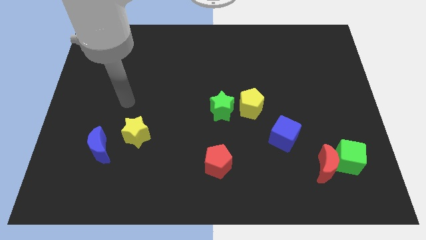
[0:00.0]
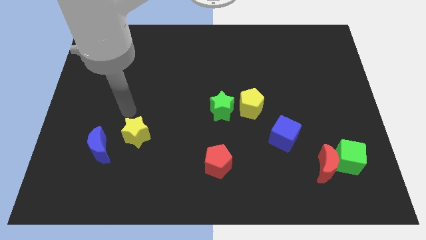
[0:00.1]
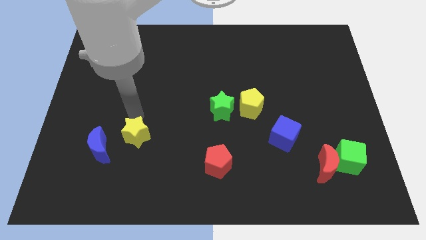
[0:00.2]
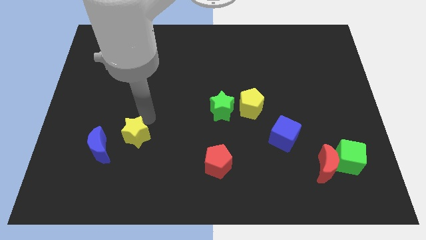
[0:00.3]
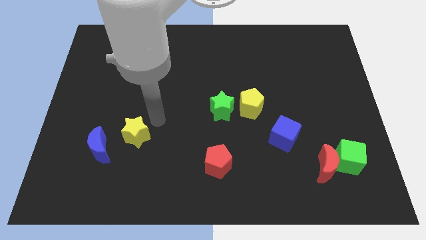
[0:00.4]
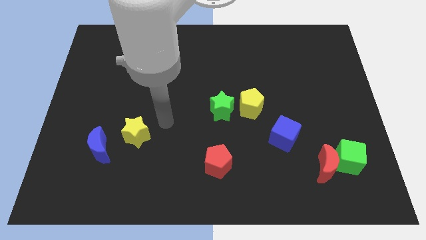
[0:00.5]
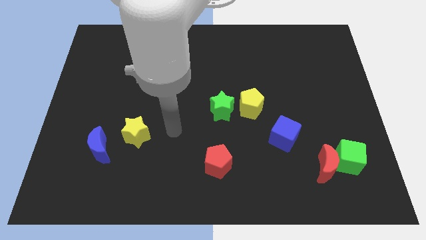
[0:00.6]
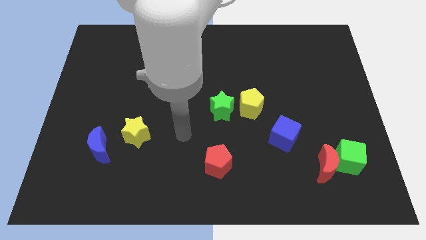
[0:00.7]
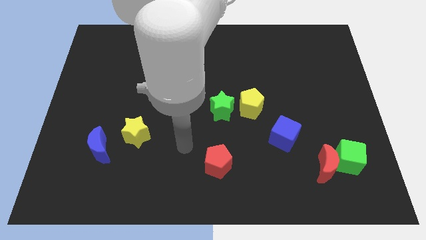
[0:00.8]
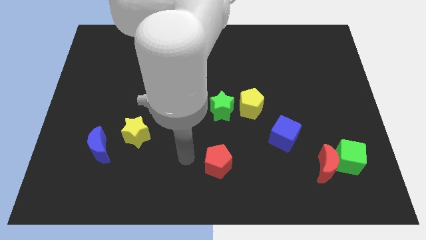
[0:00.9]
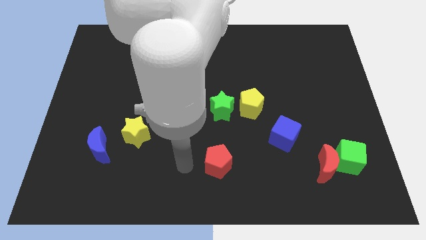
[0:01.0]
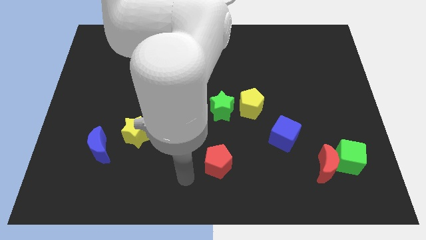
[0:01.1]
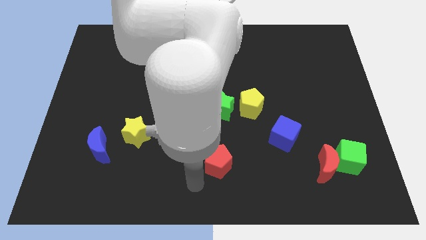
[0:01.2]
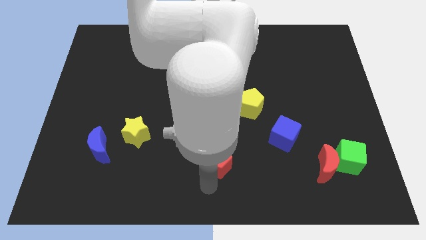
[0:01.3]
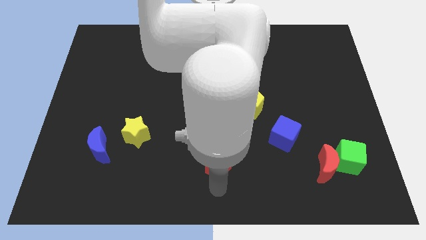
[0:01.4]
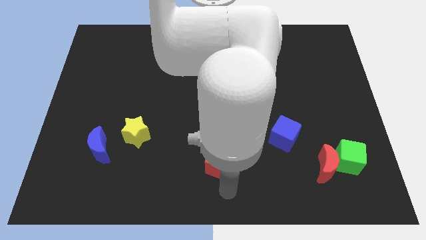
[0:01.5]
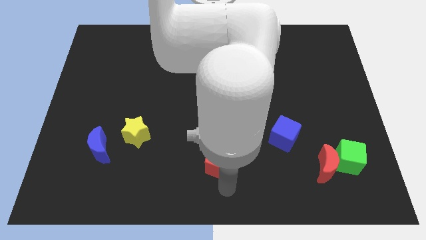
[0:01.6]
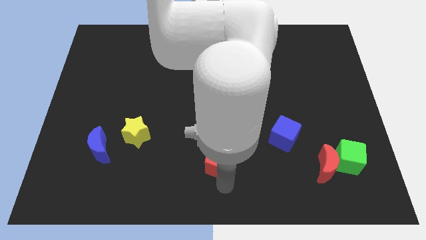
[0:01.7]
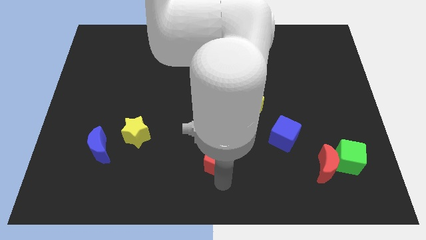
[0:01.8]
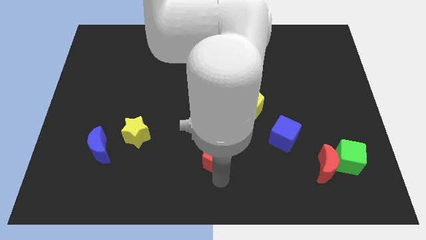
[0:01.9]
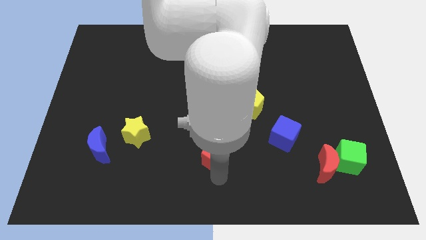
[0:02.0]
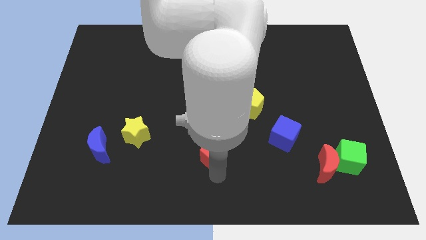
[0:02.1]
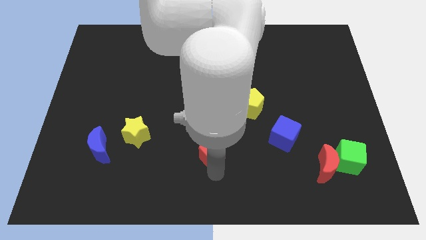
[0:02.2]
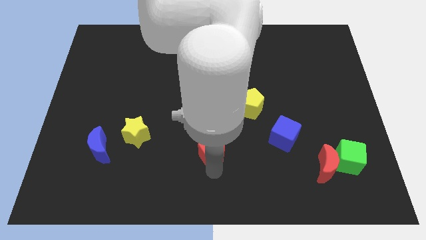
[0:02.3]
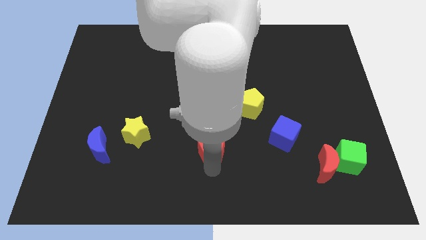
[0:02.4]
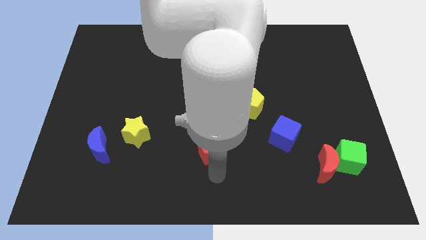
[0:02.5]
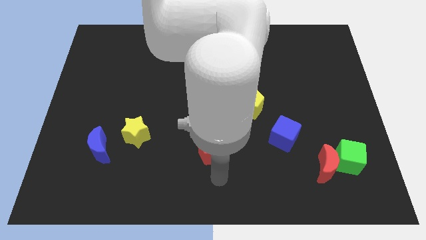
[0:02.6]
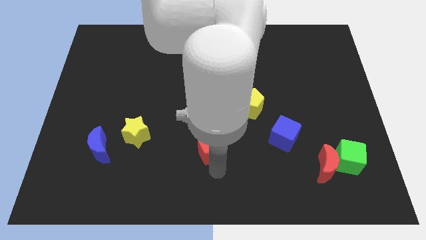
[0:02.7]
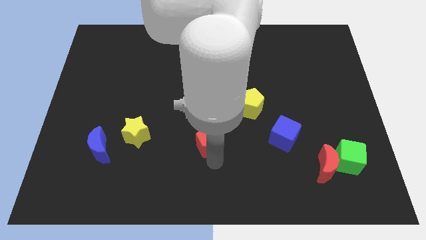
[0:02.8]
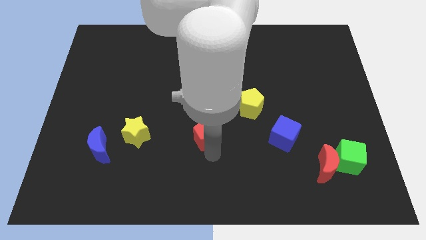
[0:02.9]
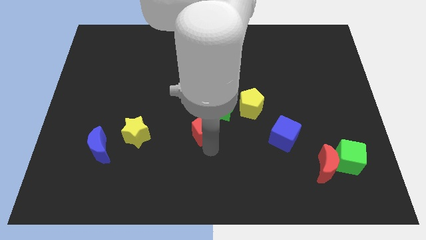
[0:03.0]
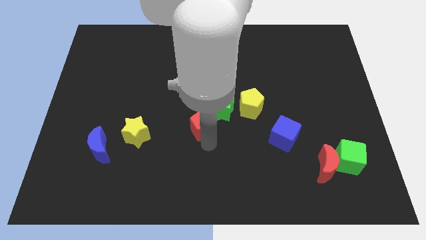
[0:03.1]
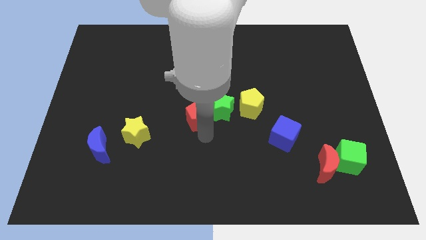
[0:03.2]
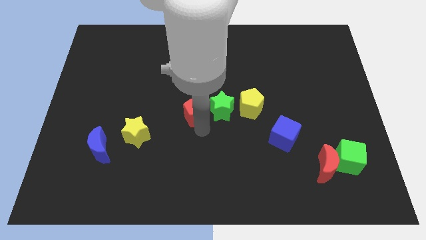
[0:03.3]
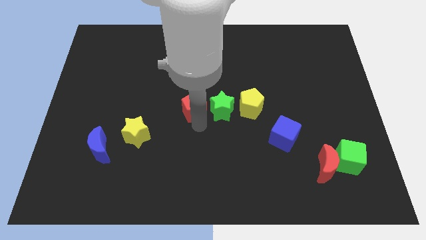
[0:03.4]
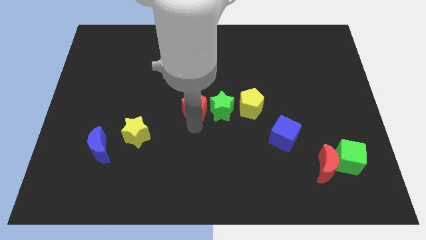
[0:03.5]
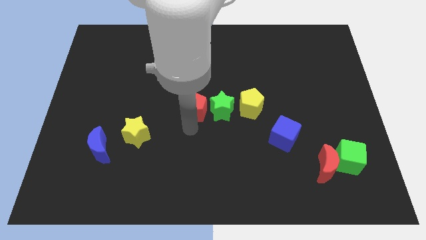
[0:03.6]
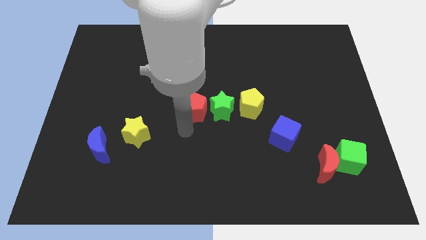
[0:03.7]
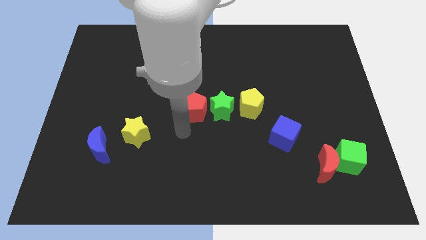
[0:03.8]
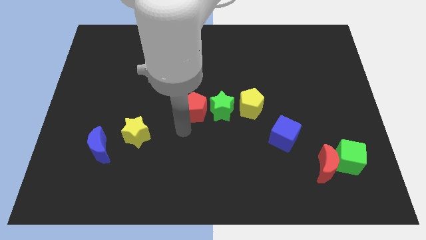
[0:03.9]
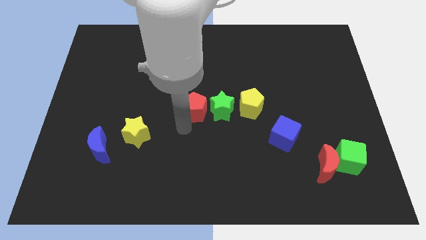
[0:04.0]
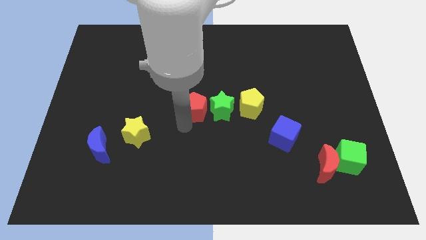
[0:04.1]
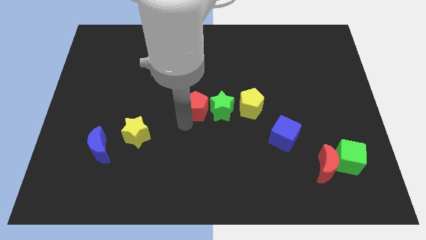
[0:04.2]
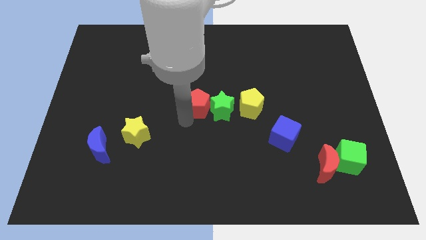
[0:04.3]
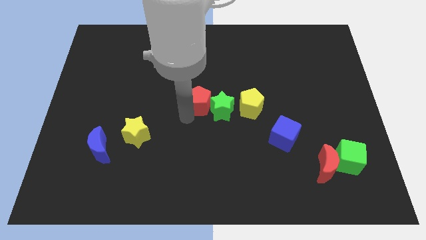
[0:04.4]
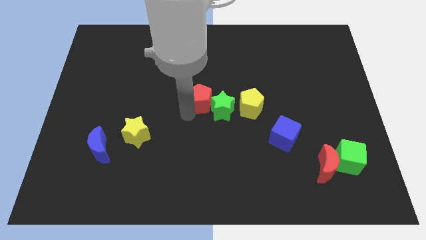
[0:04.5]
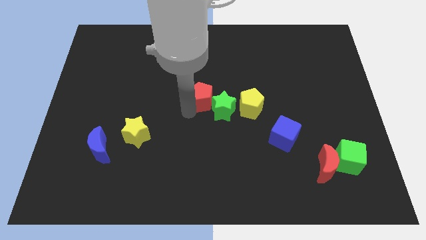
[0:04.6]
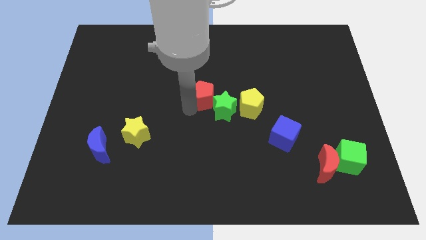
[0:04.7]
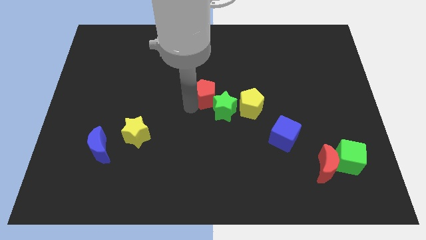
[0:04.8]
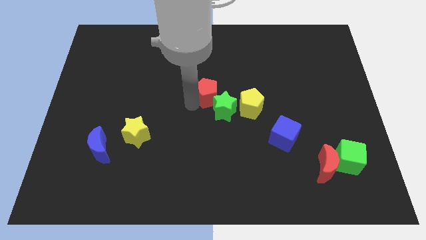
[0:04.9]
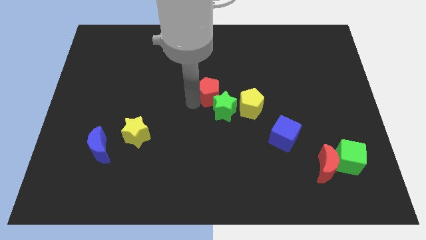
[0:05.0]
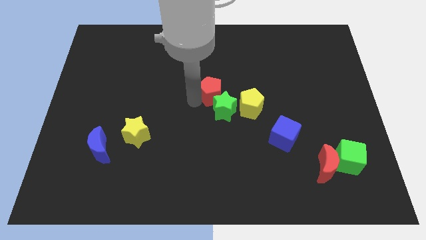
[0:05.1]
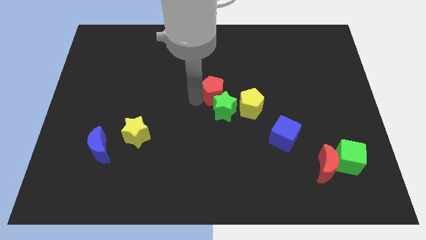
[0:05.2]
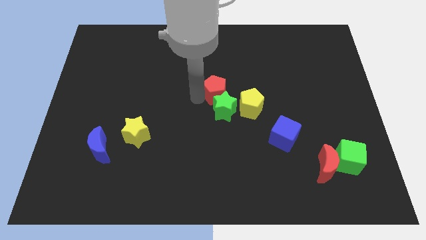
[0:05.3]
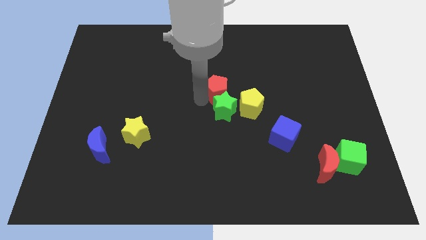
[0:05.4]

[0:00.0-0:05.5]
move the red pentagon upwards

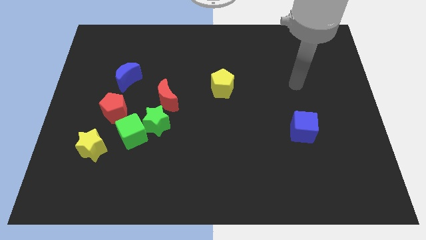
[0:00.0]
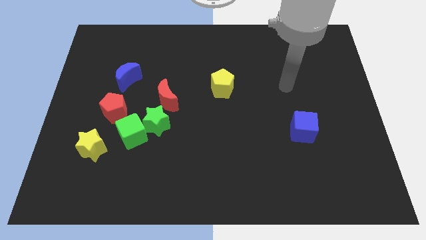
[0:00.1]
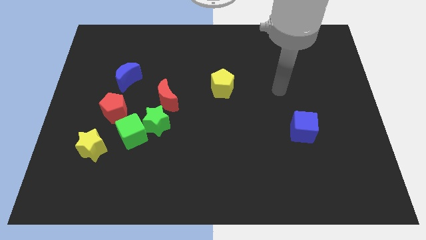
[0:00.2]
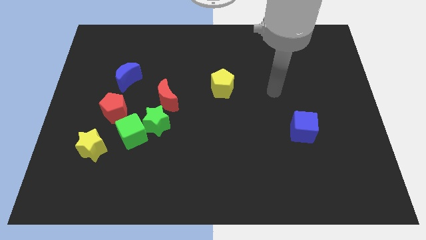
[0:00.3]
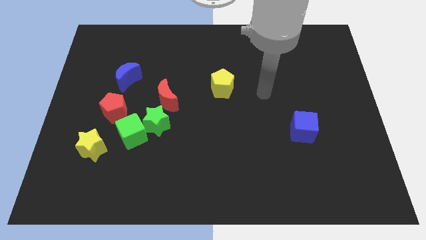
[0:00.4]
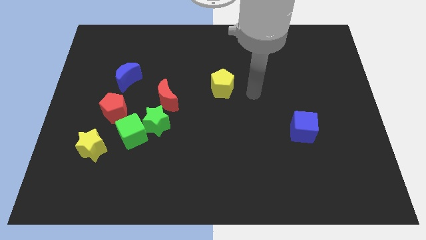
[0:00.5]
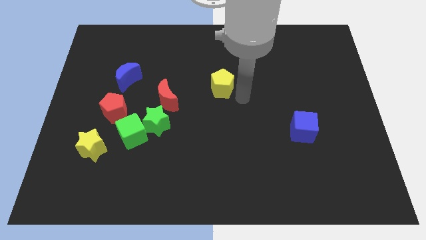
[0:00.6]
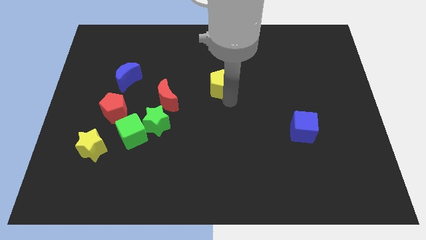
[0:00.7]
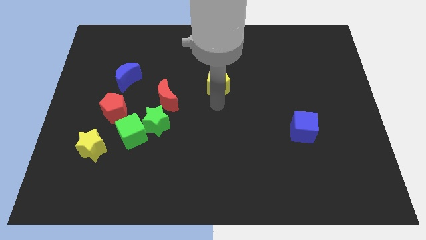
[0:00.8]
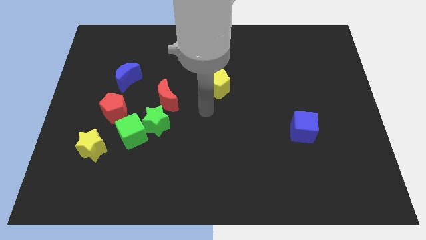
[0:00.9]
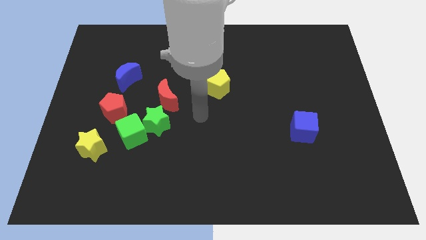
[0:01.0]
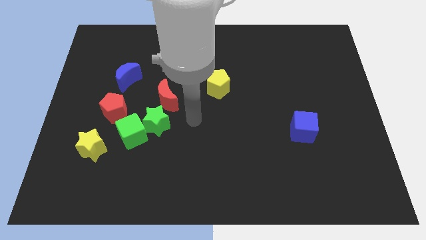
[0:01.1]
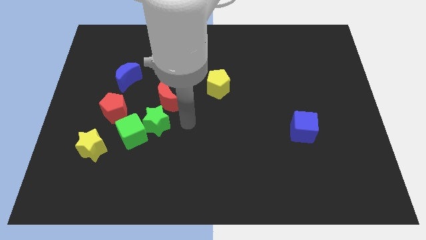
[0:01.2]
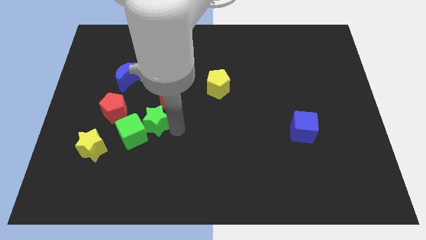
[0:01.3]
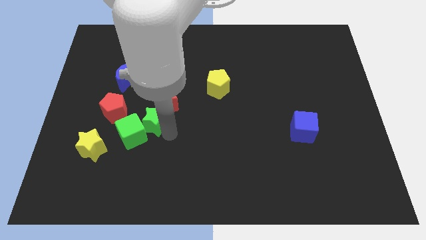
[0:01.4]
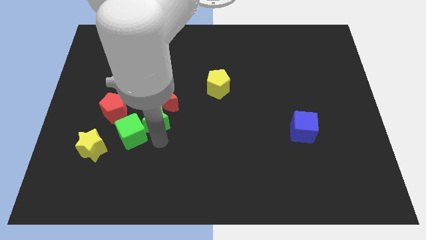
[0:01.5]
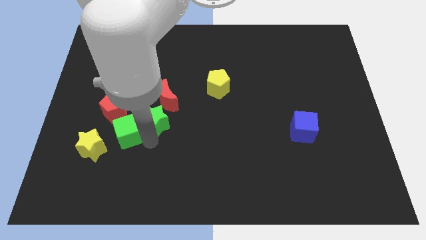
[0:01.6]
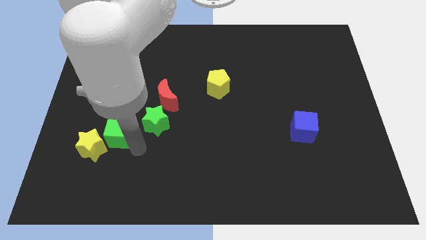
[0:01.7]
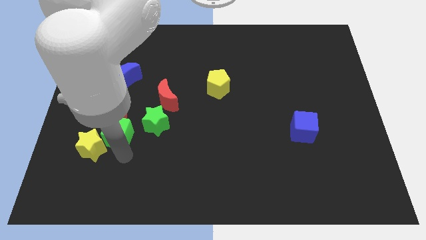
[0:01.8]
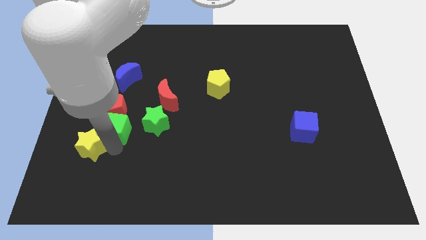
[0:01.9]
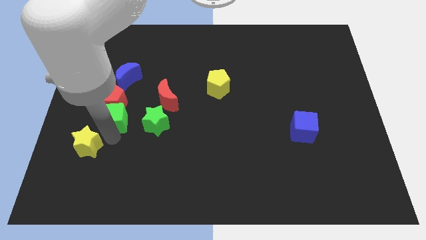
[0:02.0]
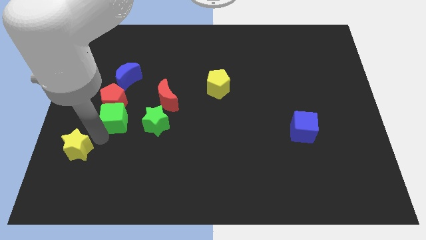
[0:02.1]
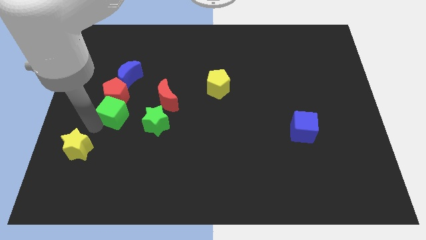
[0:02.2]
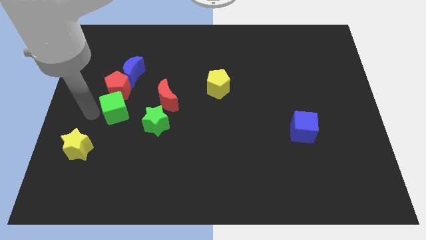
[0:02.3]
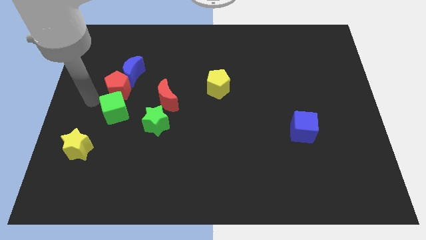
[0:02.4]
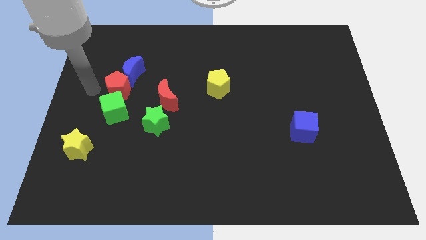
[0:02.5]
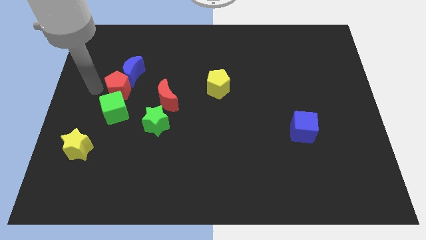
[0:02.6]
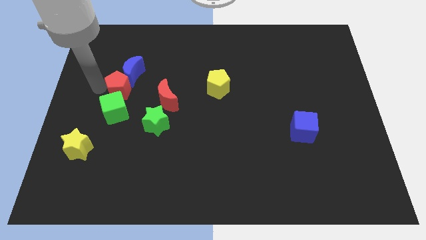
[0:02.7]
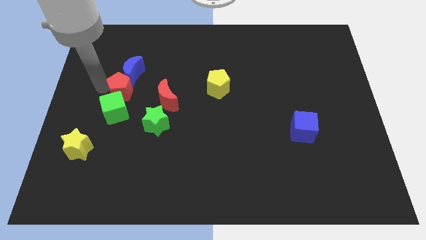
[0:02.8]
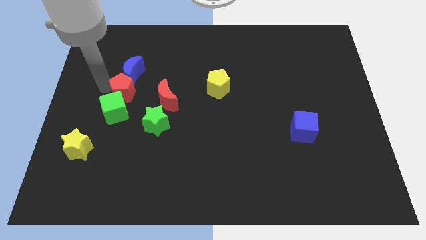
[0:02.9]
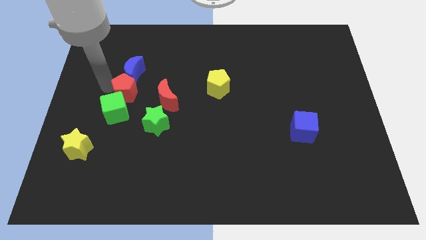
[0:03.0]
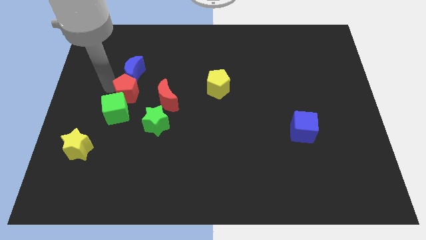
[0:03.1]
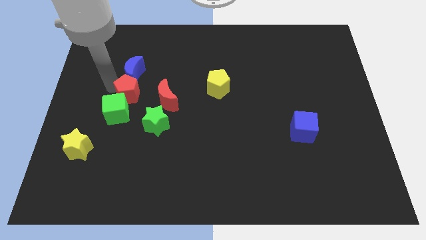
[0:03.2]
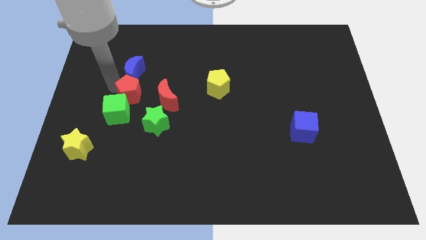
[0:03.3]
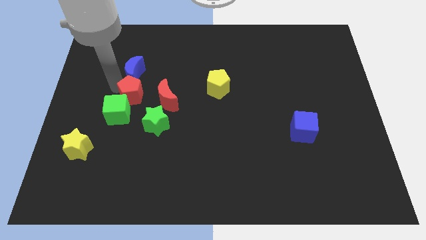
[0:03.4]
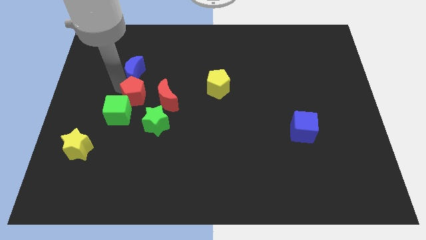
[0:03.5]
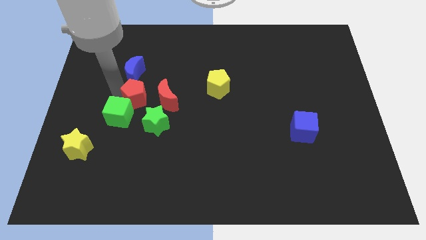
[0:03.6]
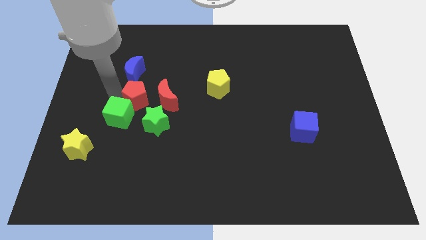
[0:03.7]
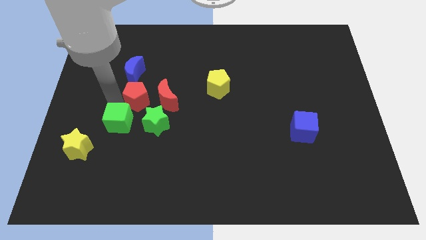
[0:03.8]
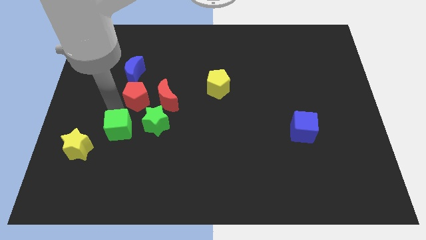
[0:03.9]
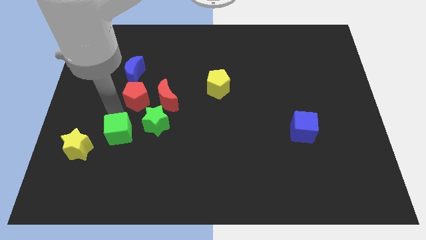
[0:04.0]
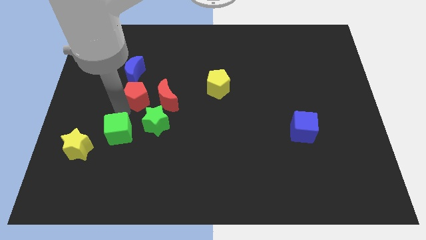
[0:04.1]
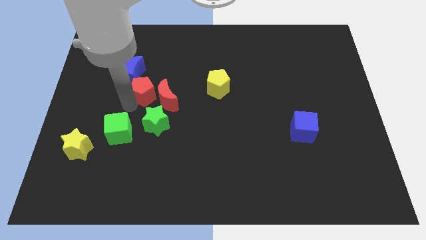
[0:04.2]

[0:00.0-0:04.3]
slide the red pentagon somewhat upwards and right diagonally
